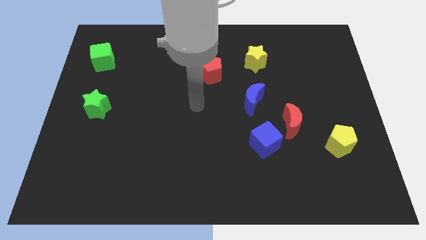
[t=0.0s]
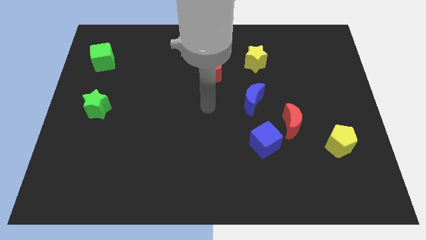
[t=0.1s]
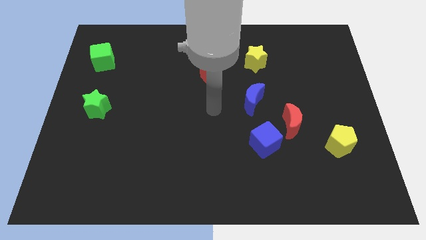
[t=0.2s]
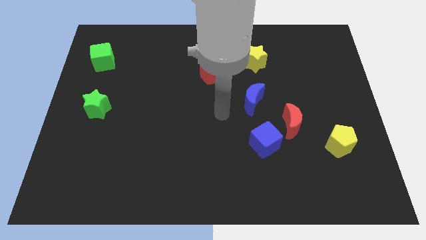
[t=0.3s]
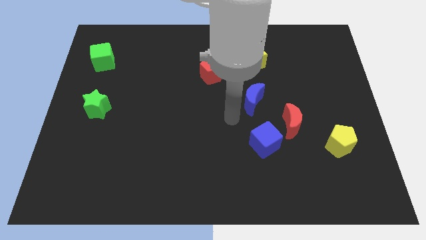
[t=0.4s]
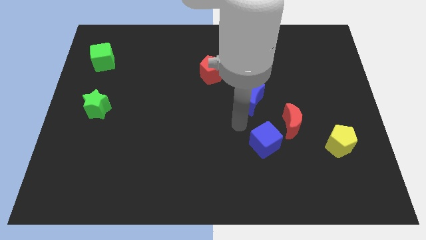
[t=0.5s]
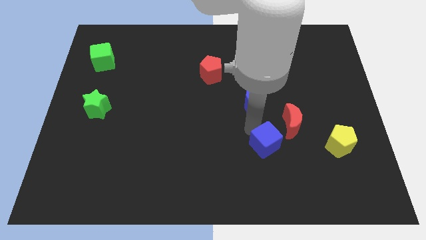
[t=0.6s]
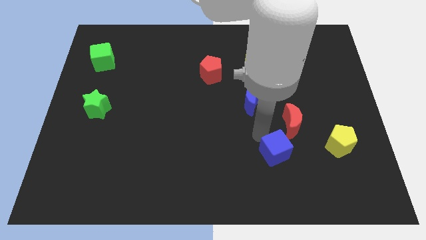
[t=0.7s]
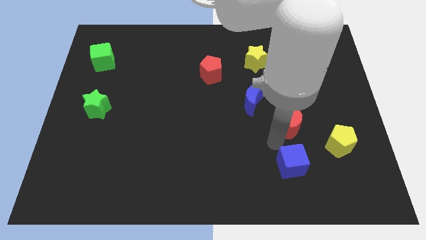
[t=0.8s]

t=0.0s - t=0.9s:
move the red moon away from the blue cube

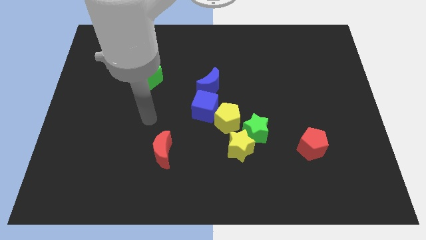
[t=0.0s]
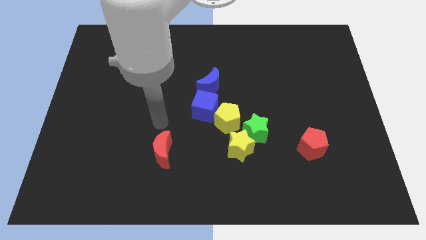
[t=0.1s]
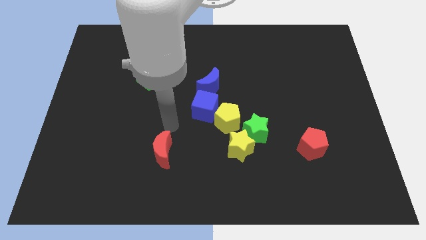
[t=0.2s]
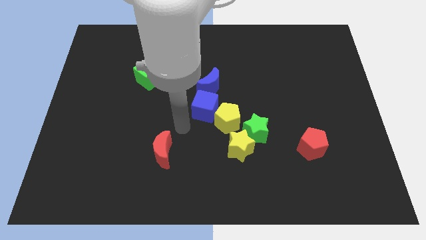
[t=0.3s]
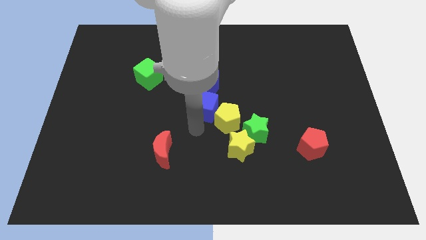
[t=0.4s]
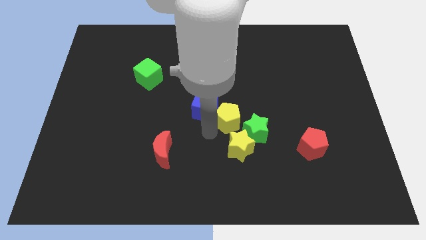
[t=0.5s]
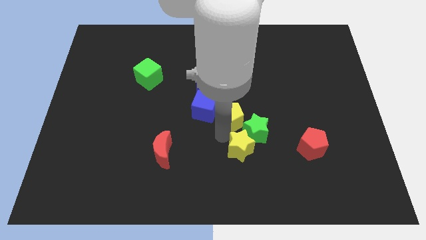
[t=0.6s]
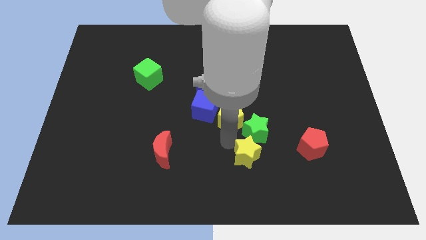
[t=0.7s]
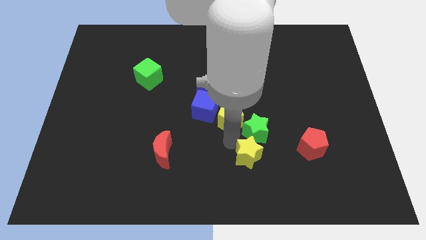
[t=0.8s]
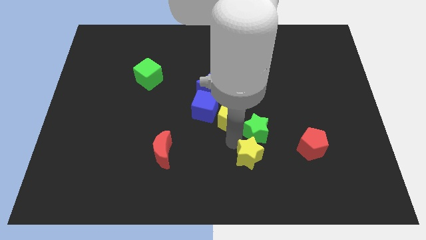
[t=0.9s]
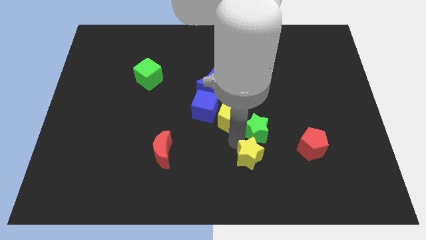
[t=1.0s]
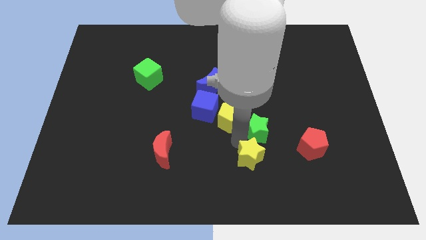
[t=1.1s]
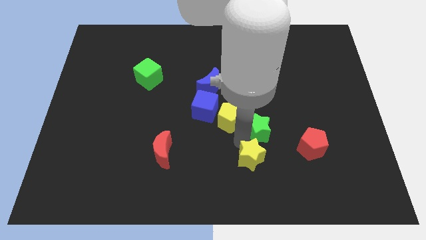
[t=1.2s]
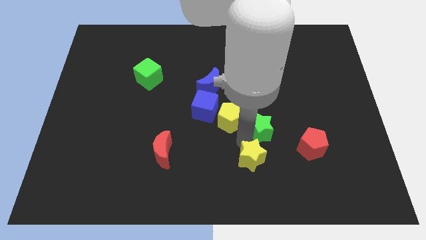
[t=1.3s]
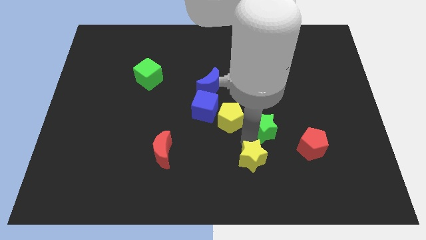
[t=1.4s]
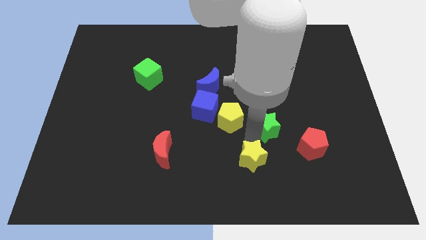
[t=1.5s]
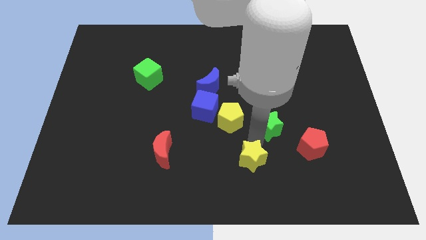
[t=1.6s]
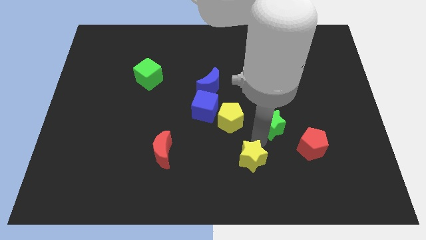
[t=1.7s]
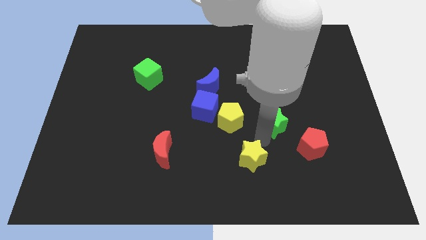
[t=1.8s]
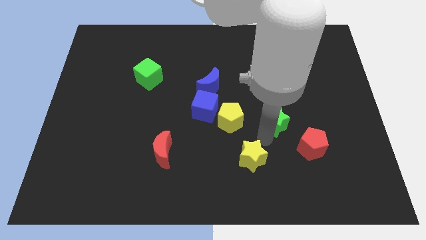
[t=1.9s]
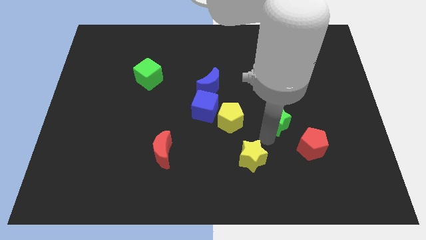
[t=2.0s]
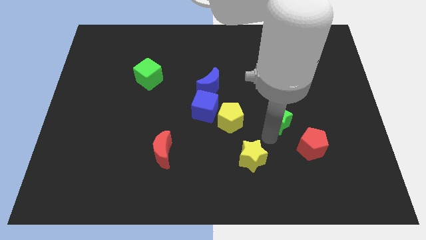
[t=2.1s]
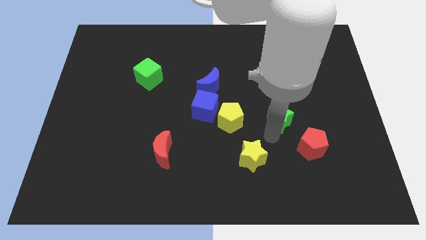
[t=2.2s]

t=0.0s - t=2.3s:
move the green star away from the yellow star and yellow pentagon

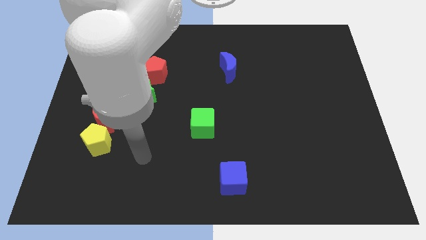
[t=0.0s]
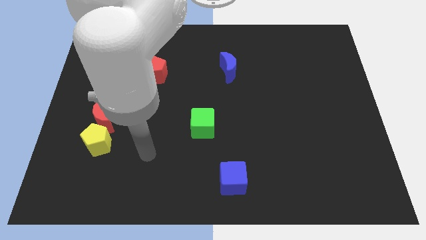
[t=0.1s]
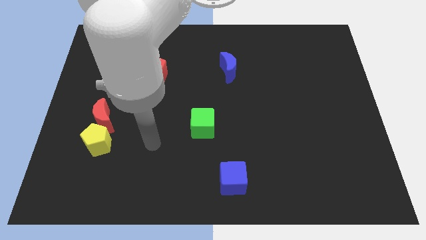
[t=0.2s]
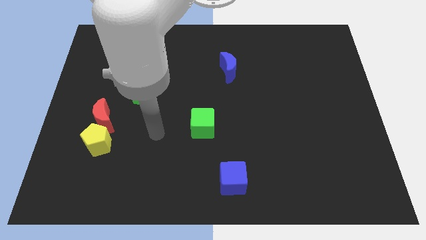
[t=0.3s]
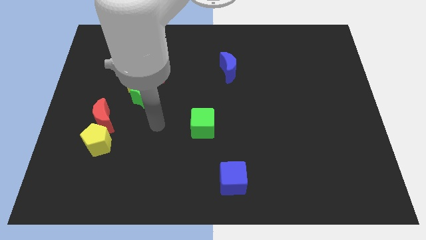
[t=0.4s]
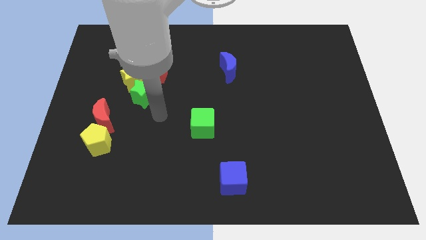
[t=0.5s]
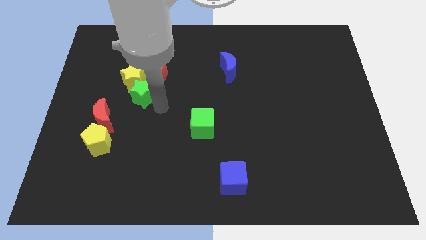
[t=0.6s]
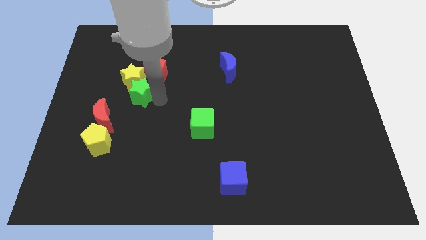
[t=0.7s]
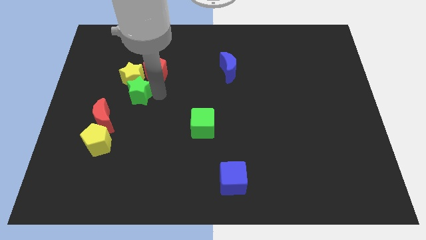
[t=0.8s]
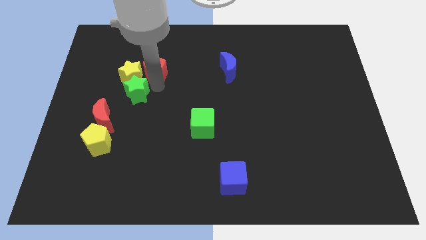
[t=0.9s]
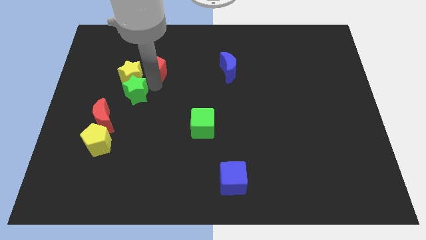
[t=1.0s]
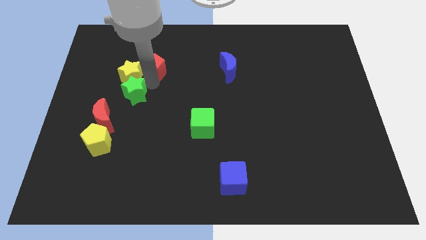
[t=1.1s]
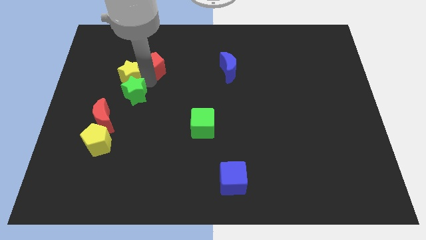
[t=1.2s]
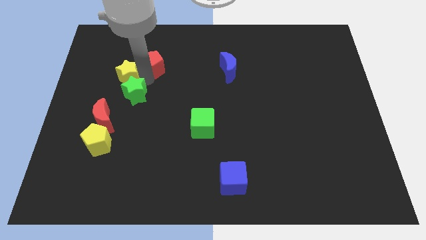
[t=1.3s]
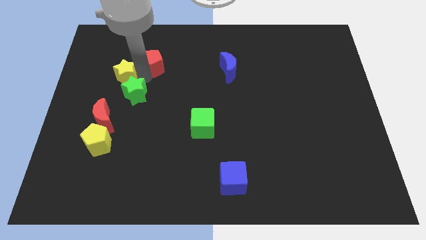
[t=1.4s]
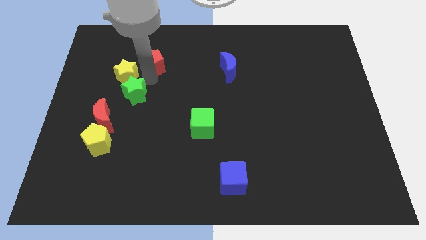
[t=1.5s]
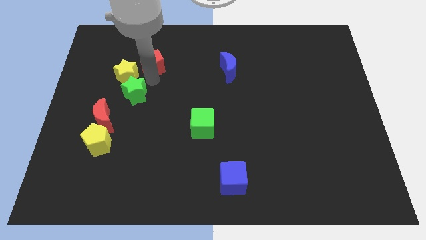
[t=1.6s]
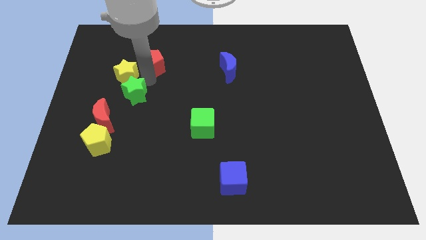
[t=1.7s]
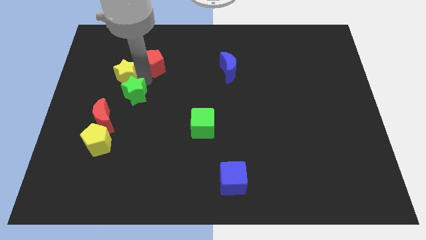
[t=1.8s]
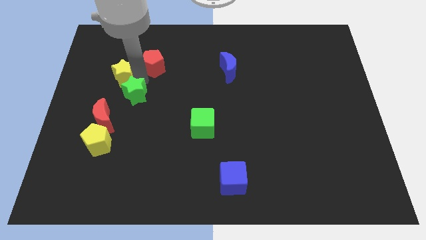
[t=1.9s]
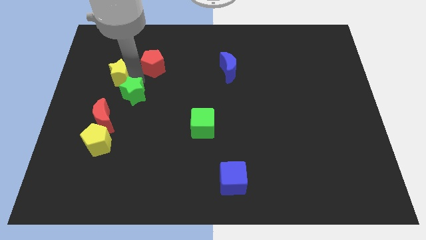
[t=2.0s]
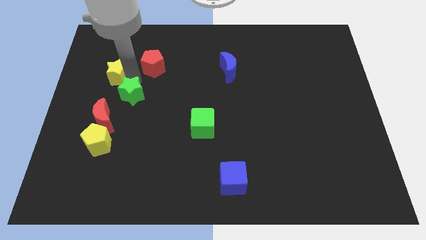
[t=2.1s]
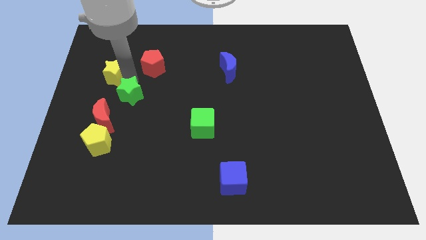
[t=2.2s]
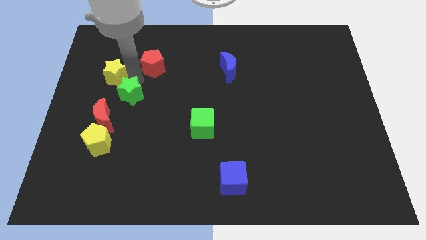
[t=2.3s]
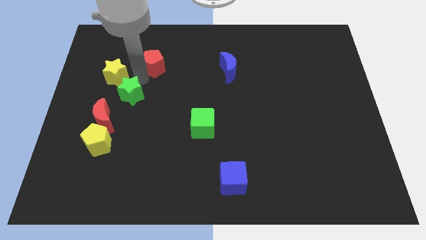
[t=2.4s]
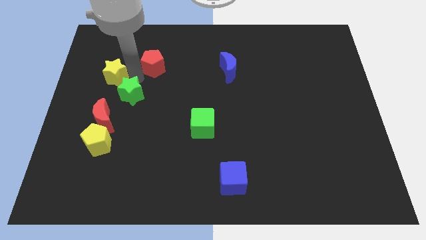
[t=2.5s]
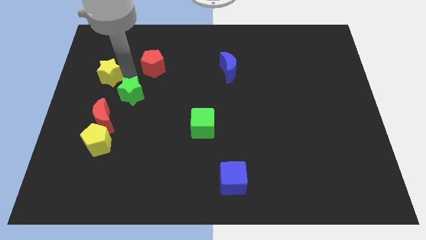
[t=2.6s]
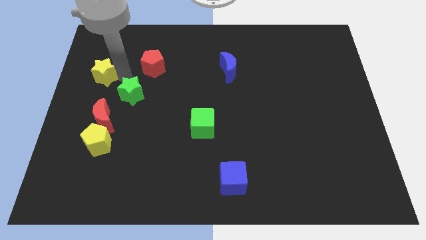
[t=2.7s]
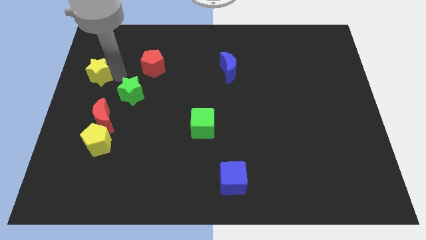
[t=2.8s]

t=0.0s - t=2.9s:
pull the yellow star apart from the red pentagon and green star

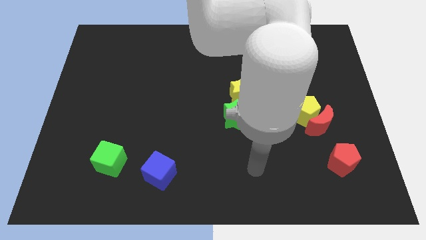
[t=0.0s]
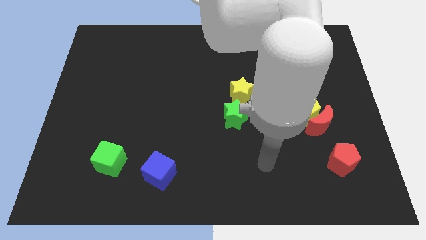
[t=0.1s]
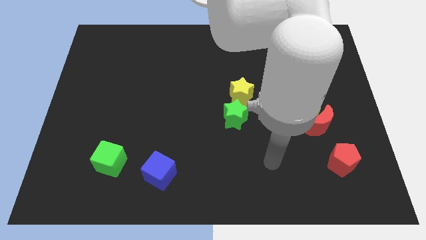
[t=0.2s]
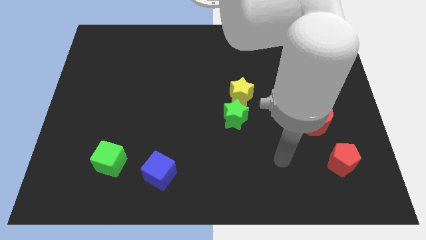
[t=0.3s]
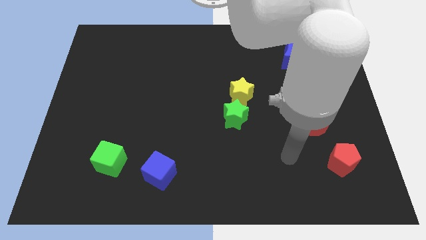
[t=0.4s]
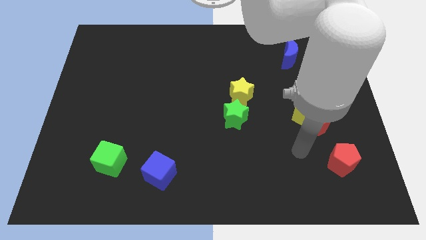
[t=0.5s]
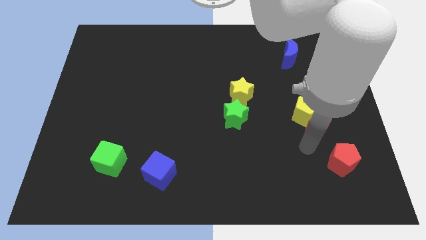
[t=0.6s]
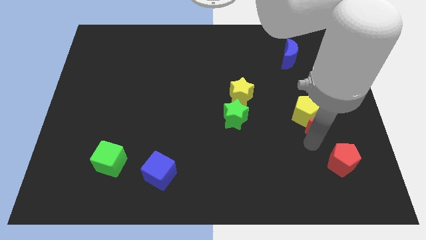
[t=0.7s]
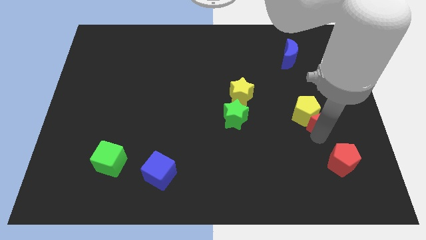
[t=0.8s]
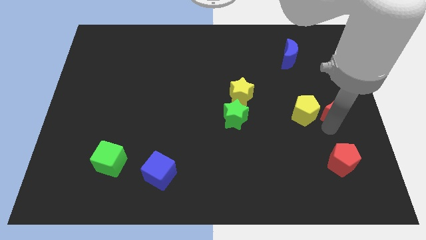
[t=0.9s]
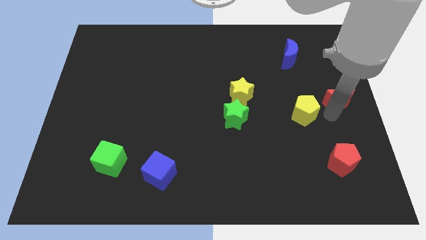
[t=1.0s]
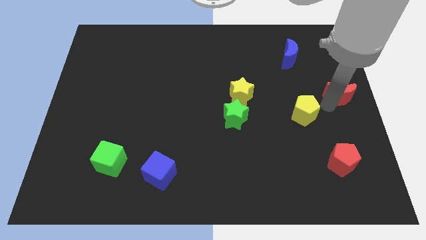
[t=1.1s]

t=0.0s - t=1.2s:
move the yellow pentagon away from the red moon

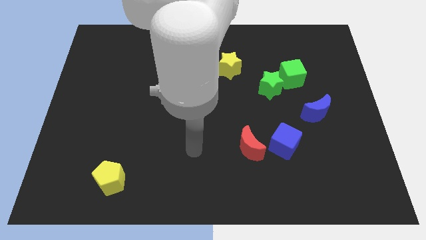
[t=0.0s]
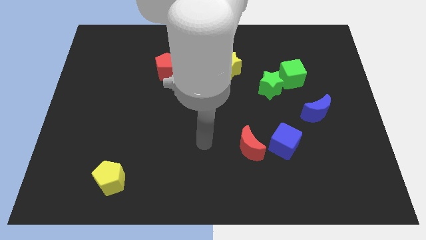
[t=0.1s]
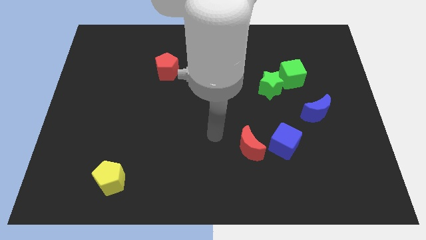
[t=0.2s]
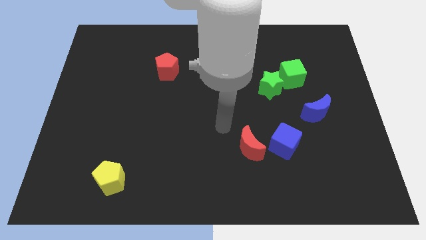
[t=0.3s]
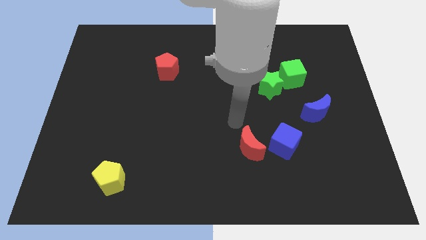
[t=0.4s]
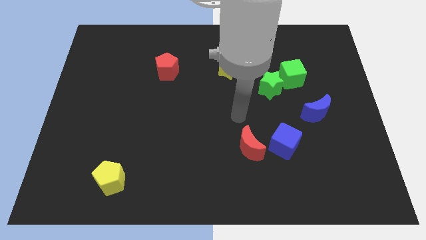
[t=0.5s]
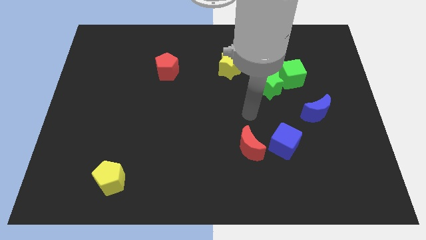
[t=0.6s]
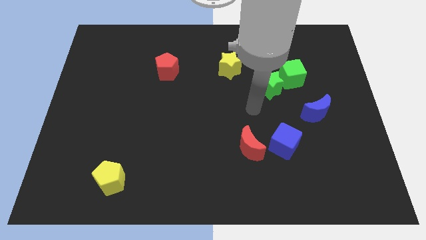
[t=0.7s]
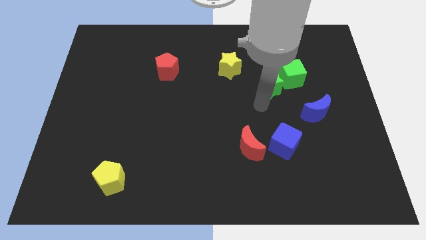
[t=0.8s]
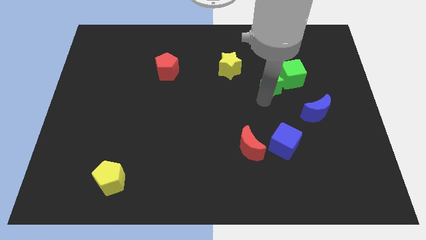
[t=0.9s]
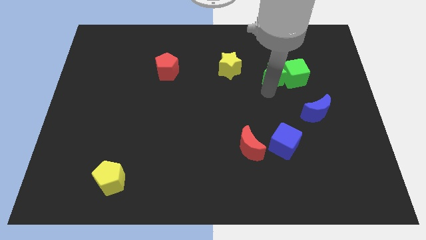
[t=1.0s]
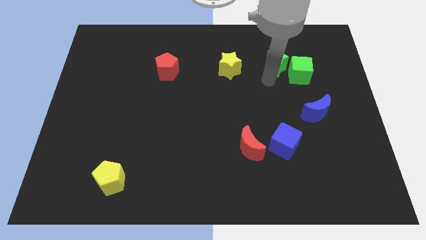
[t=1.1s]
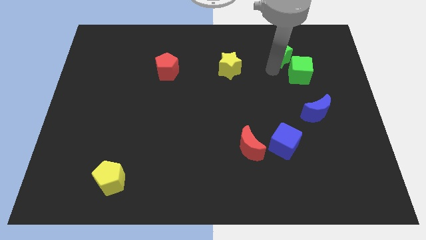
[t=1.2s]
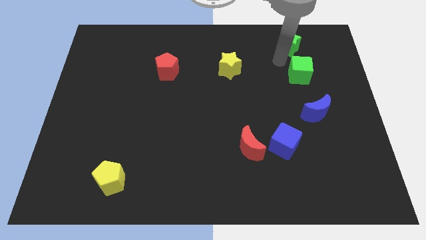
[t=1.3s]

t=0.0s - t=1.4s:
pull the green cube apart from the green star

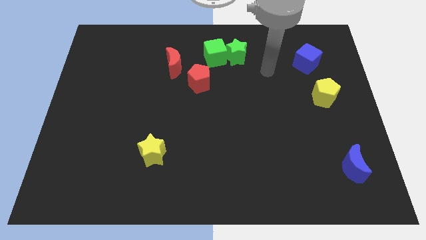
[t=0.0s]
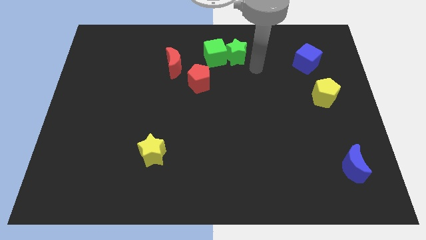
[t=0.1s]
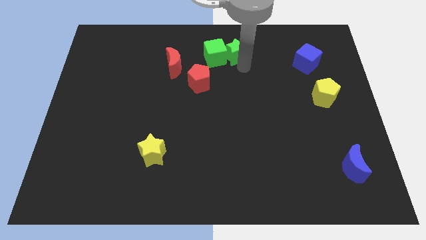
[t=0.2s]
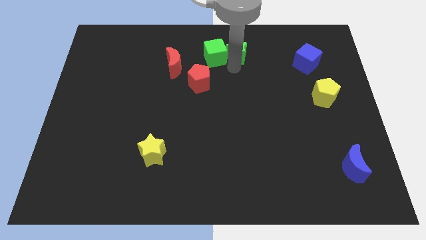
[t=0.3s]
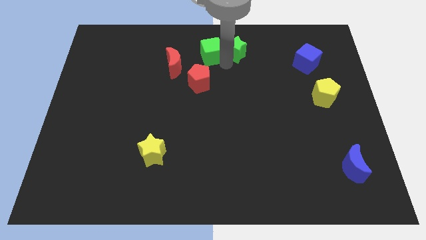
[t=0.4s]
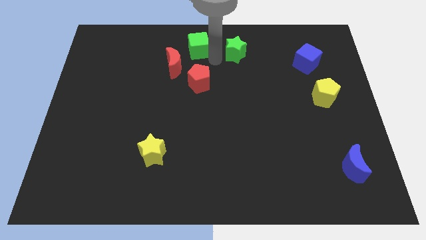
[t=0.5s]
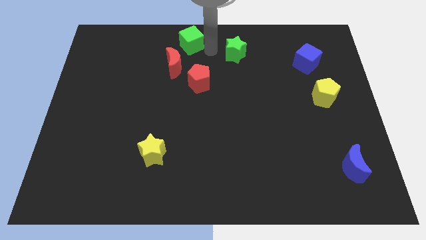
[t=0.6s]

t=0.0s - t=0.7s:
move the green star away from the green cube
